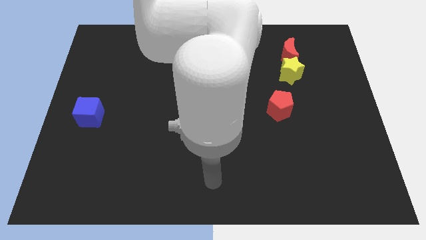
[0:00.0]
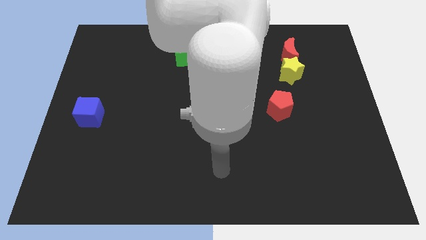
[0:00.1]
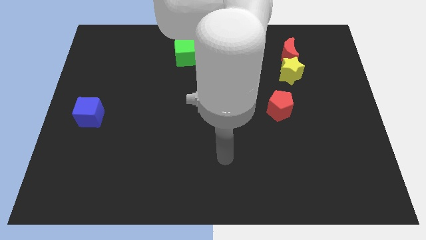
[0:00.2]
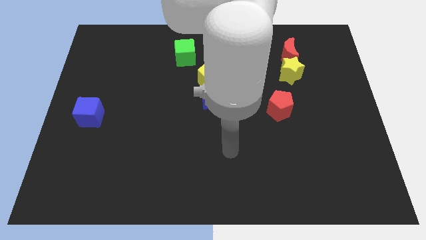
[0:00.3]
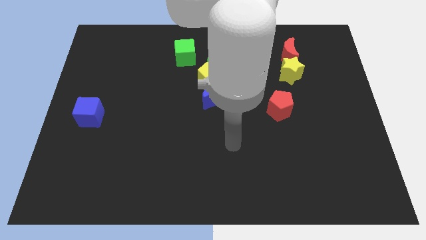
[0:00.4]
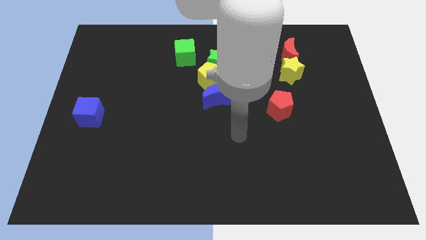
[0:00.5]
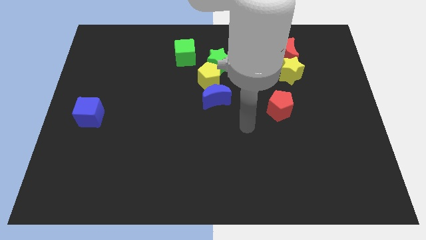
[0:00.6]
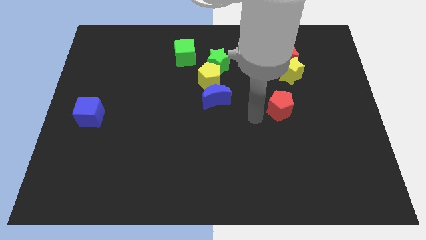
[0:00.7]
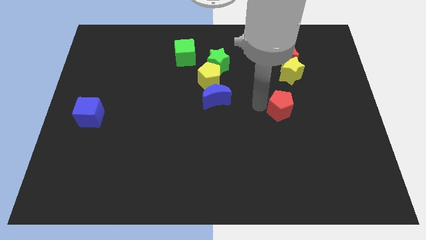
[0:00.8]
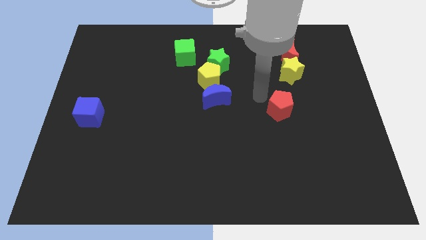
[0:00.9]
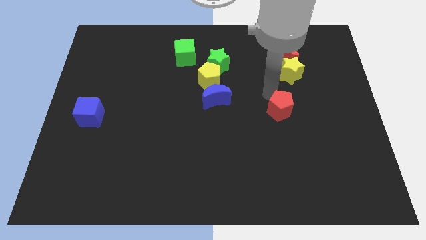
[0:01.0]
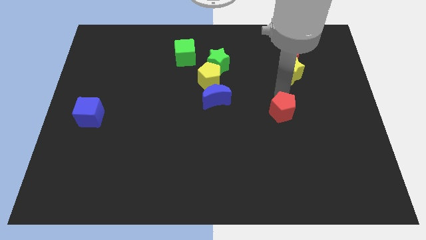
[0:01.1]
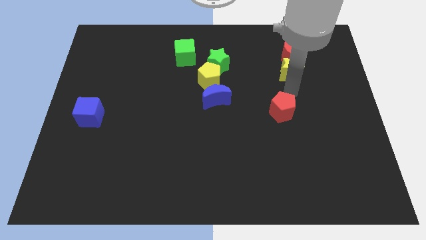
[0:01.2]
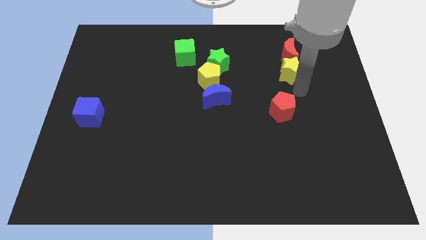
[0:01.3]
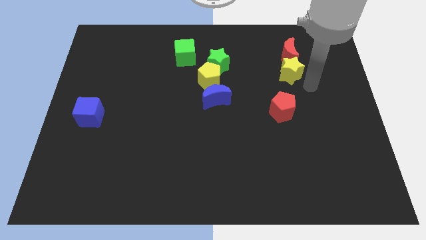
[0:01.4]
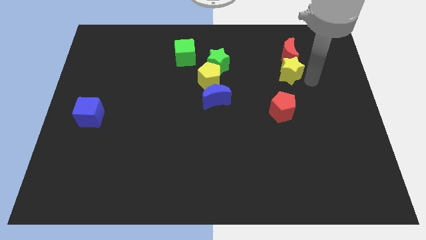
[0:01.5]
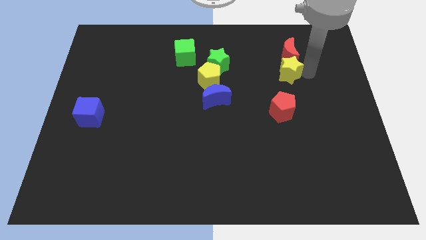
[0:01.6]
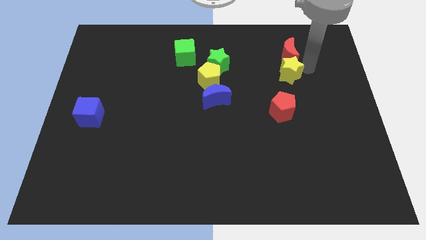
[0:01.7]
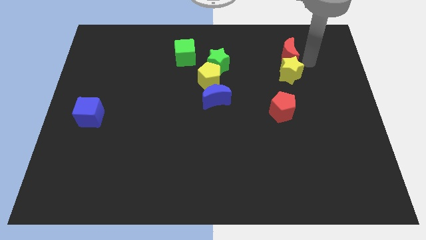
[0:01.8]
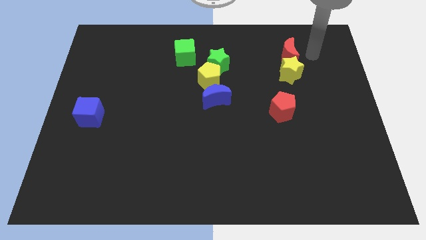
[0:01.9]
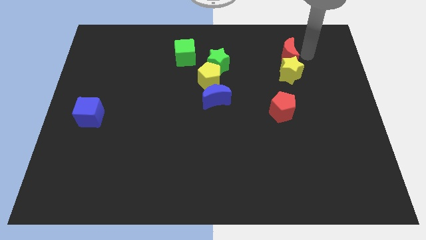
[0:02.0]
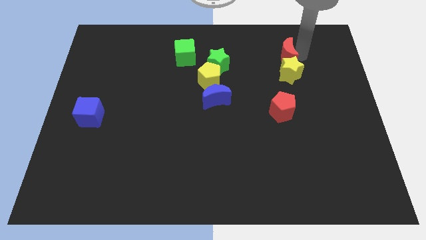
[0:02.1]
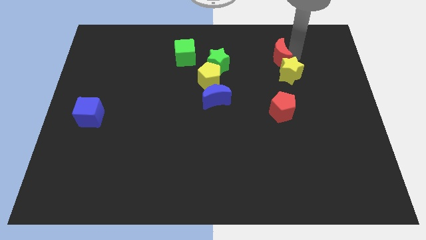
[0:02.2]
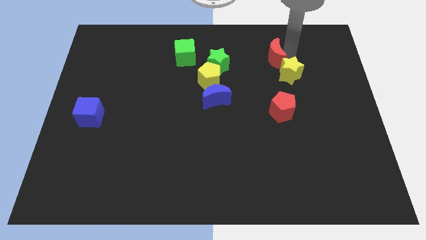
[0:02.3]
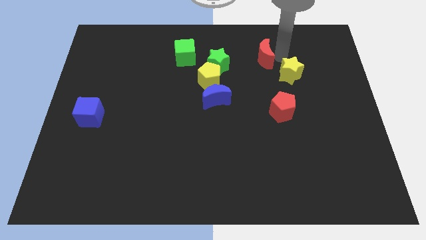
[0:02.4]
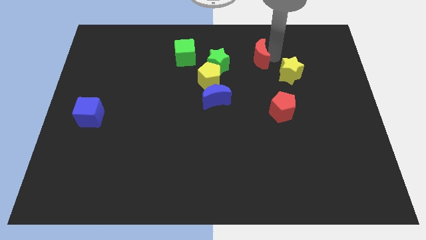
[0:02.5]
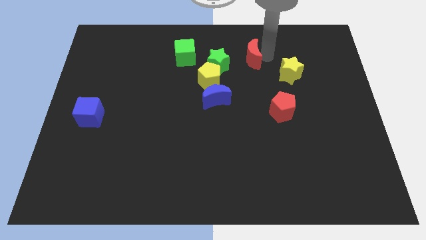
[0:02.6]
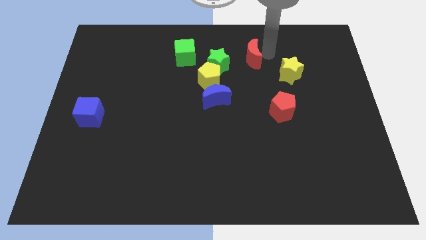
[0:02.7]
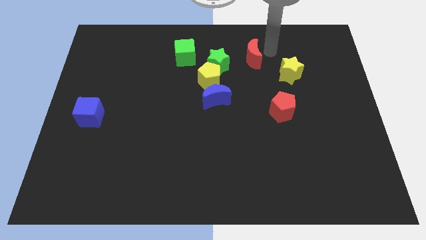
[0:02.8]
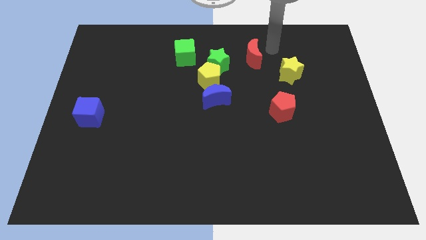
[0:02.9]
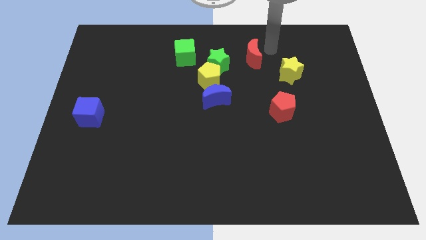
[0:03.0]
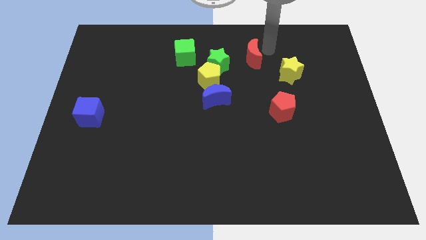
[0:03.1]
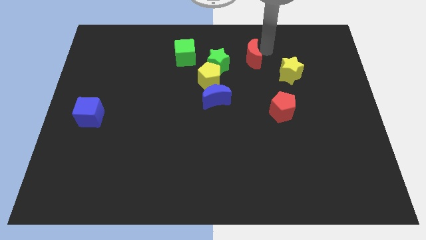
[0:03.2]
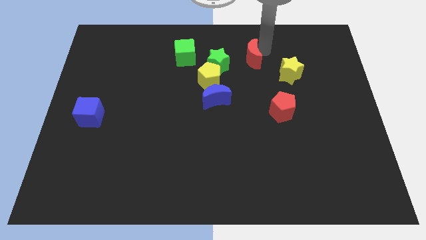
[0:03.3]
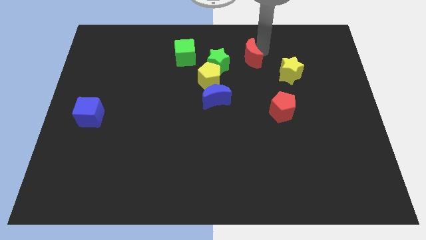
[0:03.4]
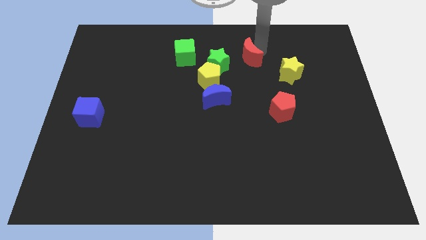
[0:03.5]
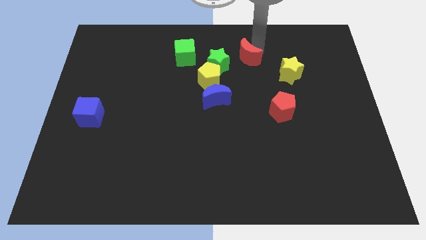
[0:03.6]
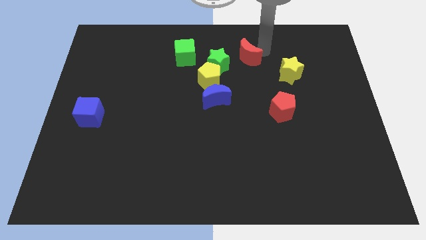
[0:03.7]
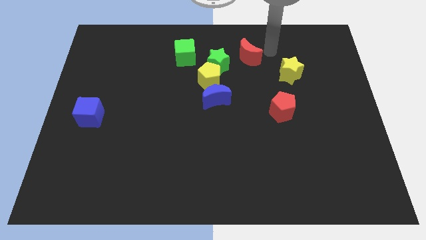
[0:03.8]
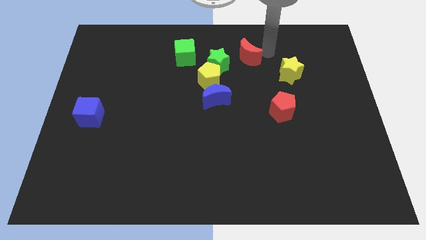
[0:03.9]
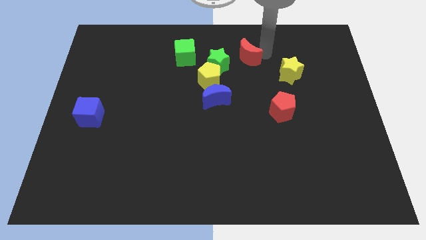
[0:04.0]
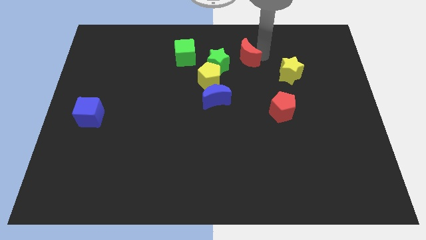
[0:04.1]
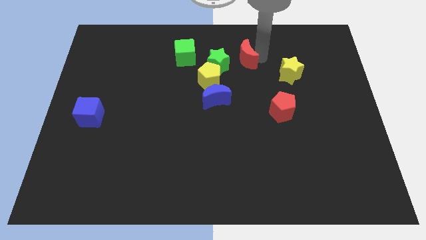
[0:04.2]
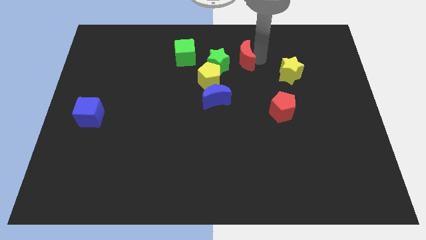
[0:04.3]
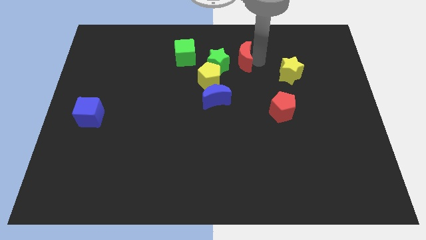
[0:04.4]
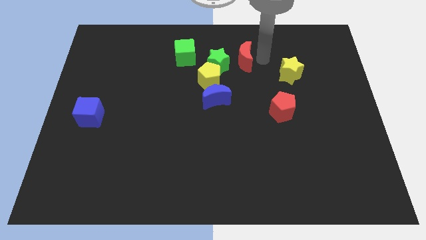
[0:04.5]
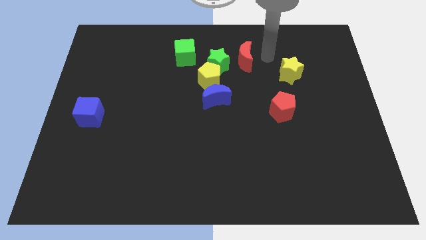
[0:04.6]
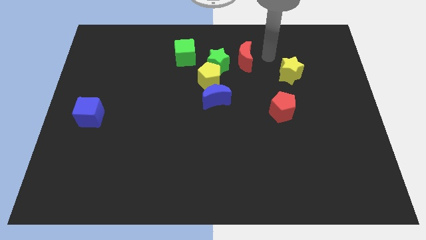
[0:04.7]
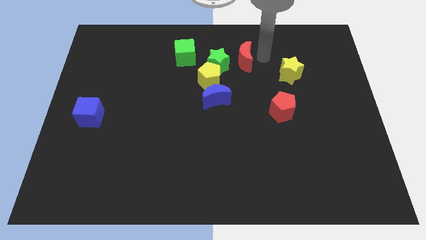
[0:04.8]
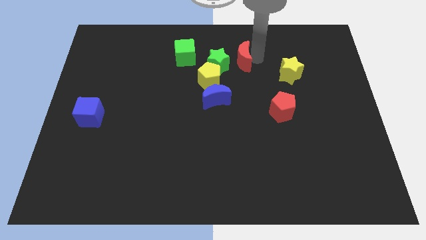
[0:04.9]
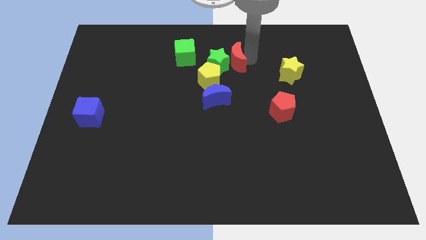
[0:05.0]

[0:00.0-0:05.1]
move the red moon close to the green star

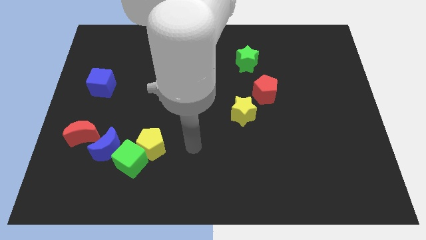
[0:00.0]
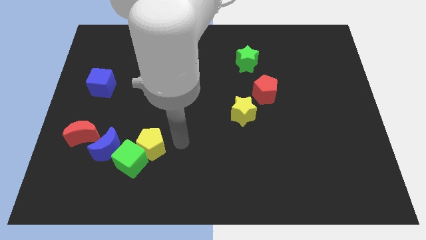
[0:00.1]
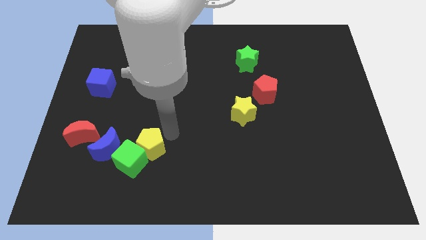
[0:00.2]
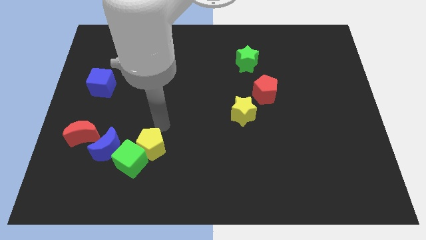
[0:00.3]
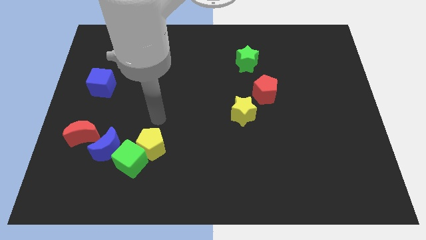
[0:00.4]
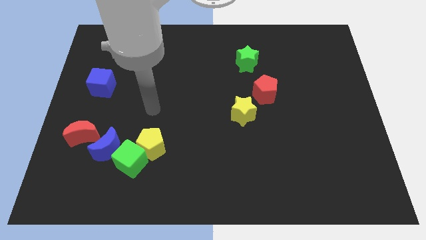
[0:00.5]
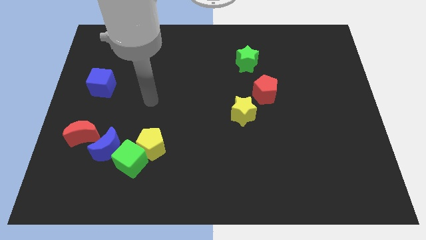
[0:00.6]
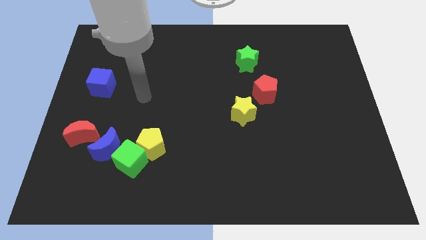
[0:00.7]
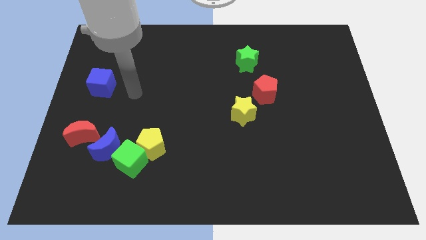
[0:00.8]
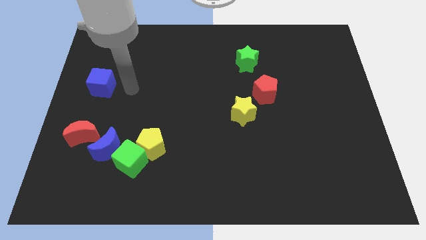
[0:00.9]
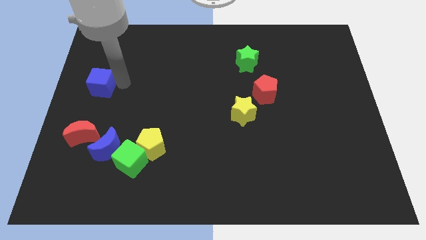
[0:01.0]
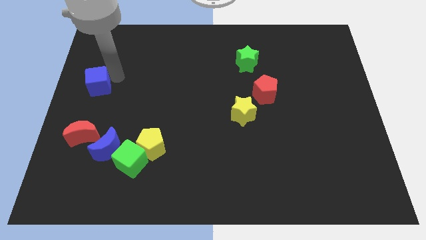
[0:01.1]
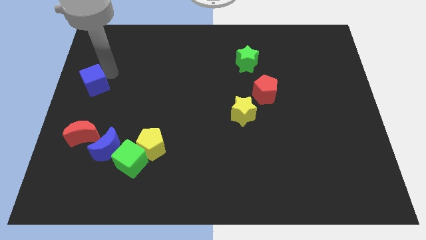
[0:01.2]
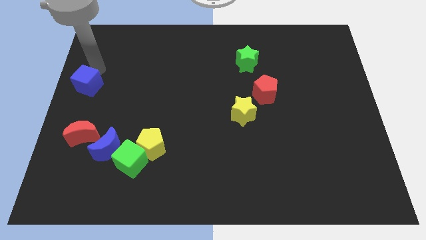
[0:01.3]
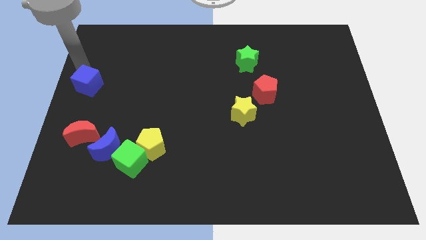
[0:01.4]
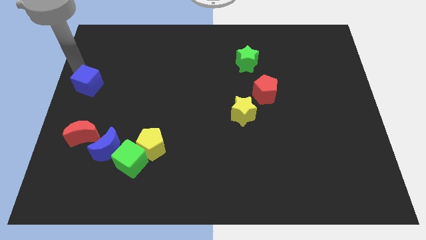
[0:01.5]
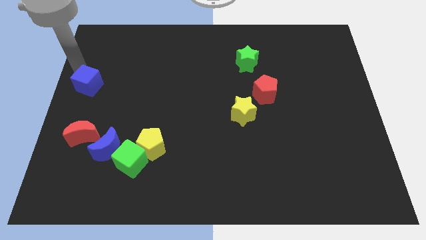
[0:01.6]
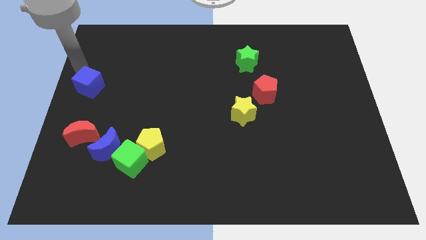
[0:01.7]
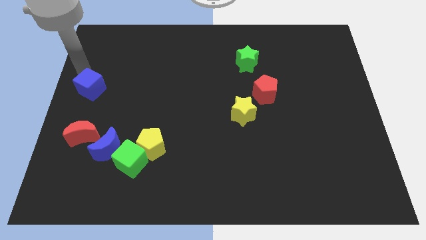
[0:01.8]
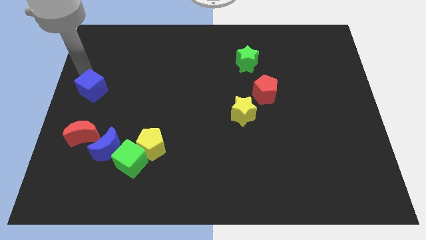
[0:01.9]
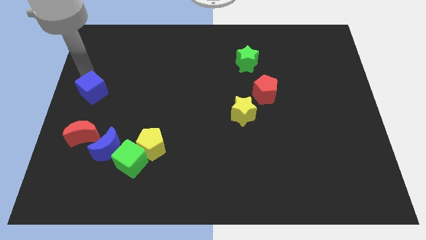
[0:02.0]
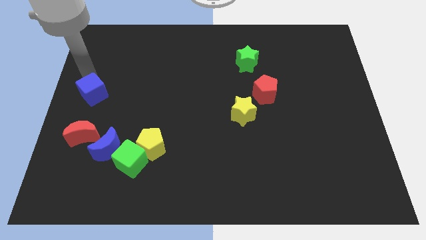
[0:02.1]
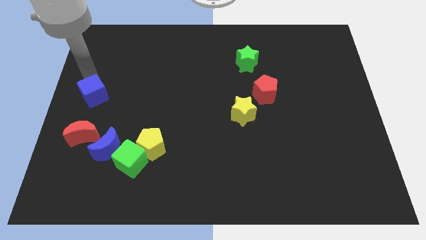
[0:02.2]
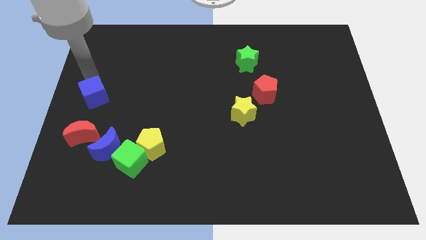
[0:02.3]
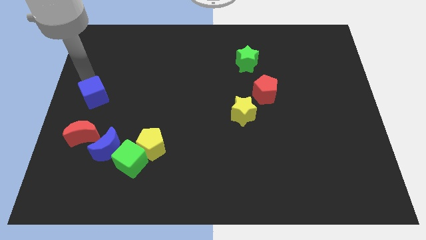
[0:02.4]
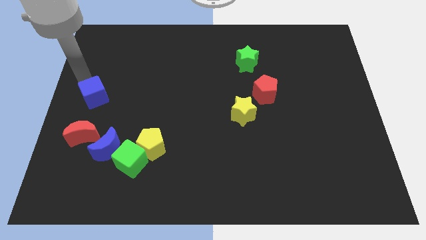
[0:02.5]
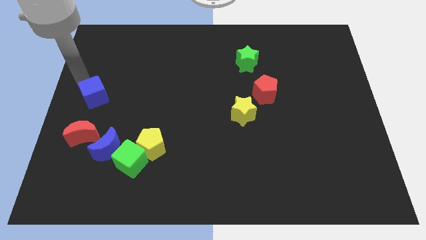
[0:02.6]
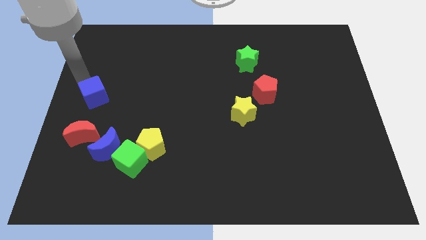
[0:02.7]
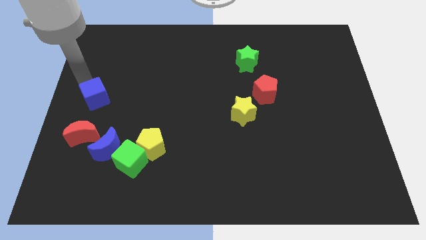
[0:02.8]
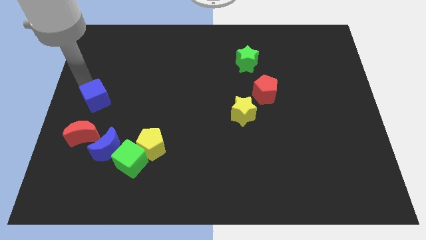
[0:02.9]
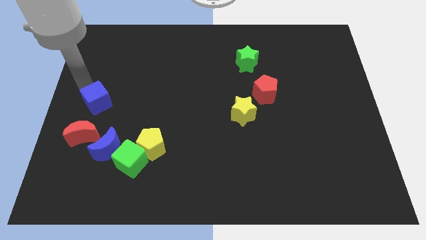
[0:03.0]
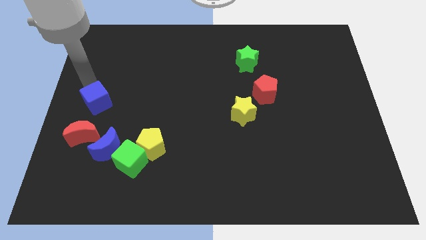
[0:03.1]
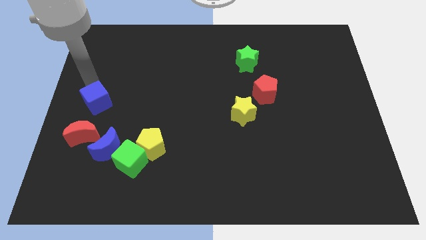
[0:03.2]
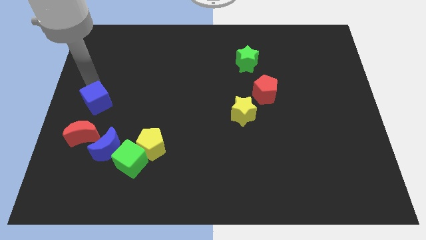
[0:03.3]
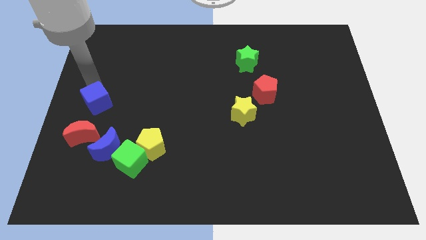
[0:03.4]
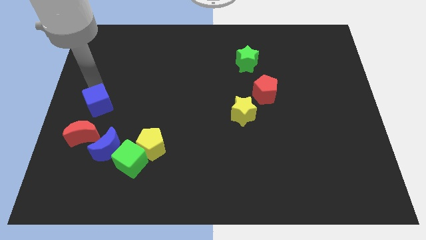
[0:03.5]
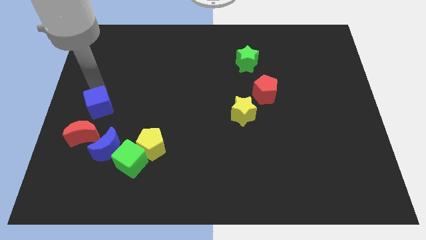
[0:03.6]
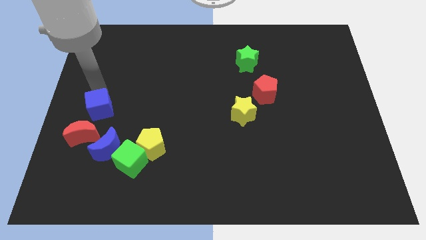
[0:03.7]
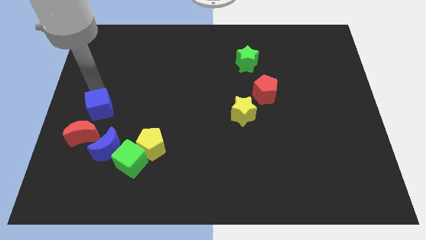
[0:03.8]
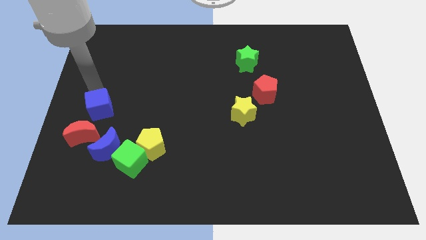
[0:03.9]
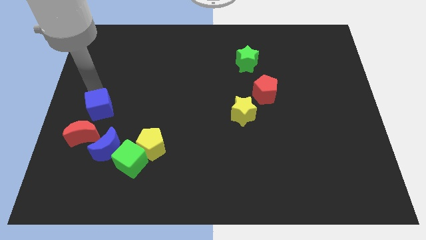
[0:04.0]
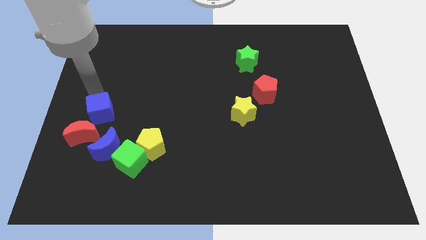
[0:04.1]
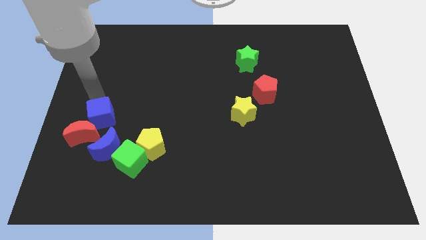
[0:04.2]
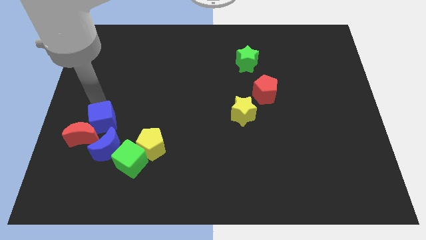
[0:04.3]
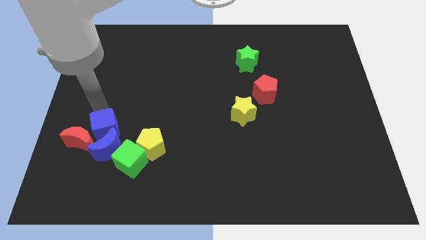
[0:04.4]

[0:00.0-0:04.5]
slide the blue cube to the blue moon
